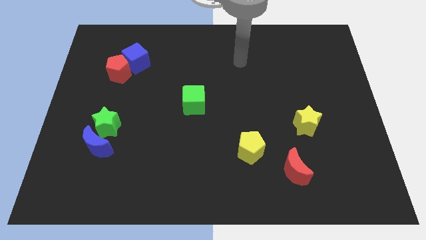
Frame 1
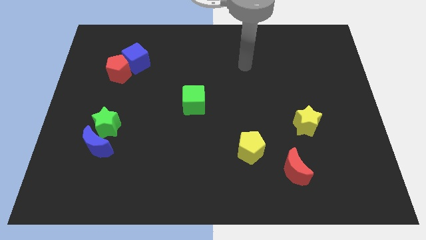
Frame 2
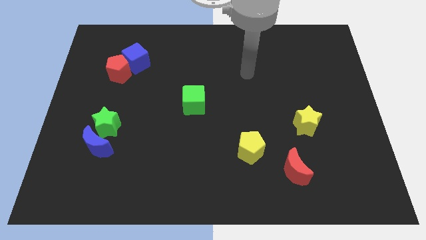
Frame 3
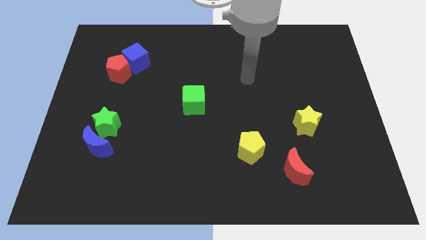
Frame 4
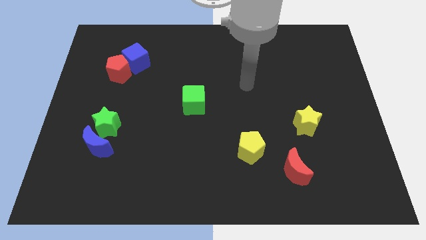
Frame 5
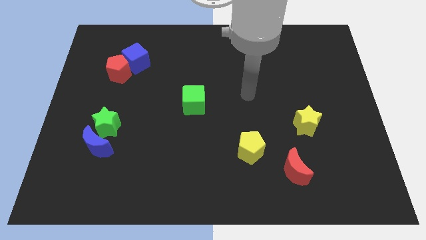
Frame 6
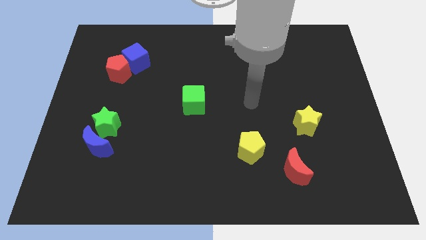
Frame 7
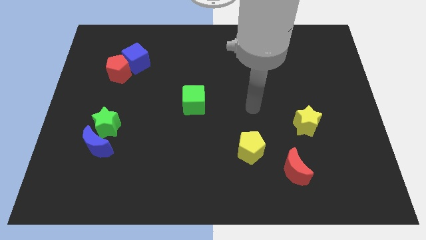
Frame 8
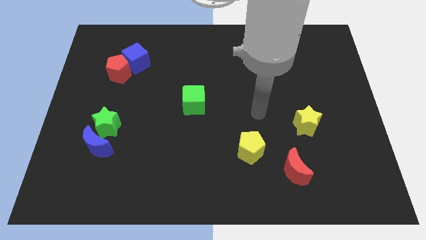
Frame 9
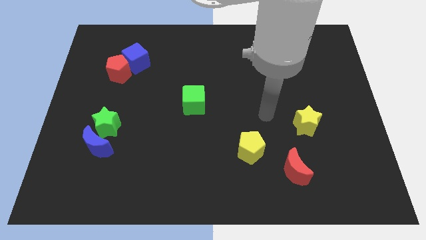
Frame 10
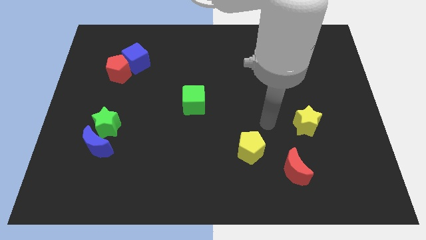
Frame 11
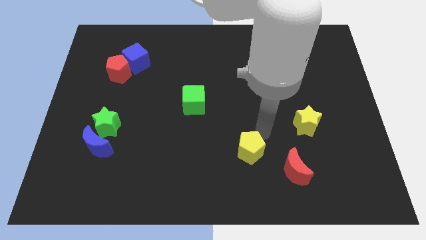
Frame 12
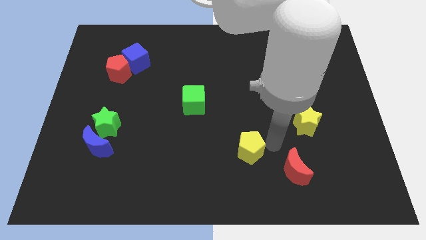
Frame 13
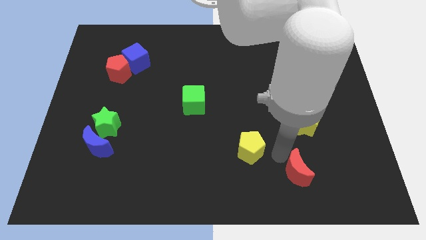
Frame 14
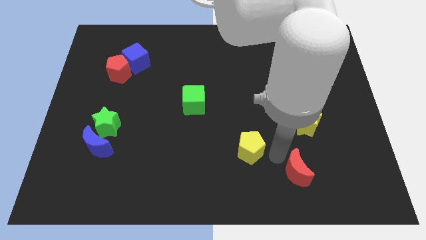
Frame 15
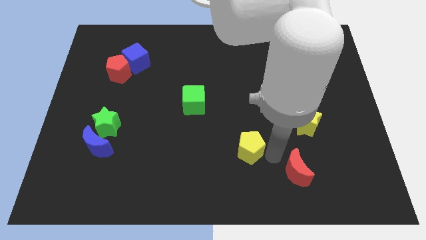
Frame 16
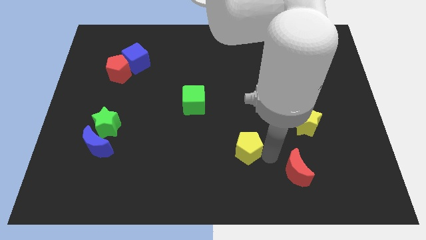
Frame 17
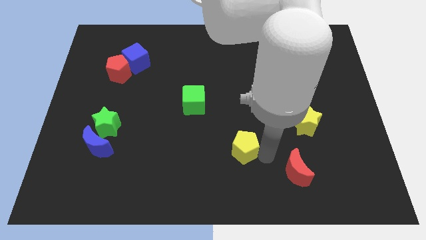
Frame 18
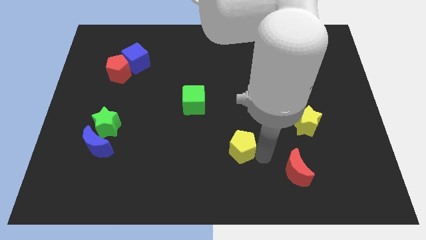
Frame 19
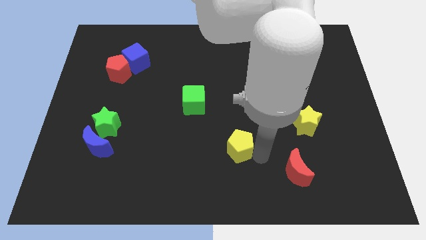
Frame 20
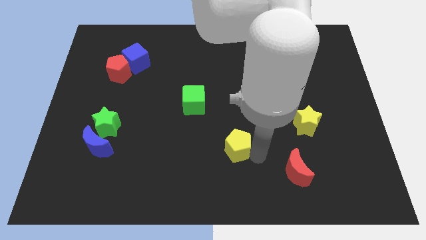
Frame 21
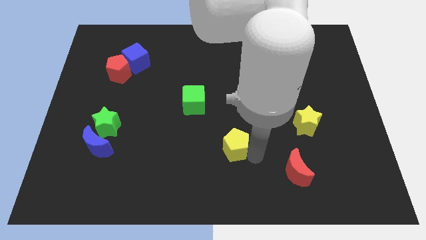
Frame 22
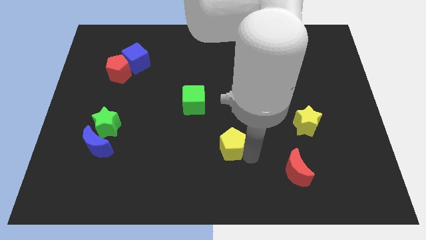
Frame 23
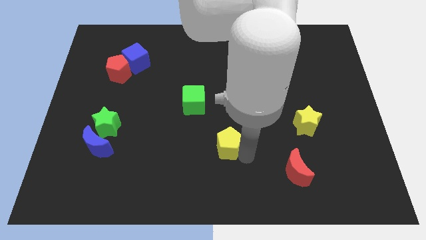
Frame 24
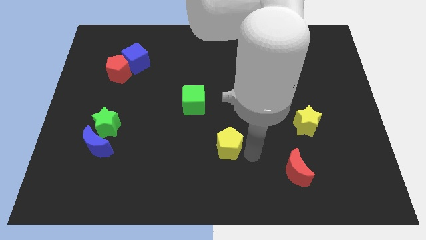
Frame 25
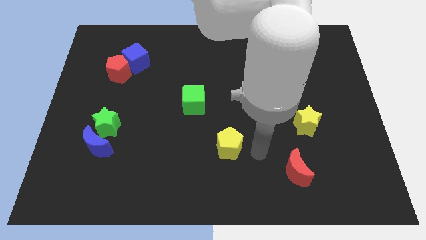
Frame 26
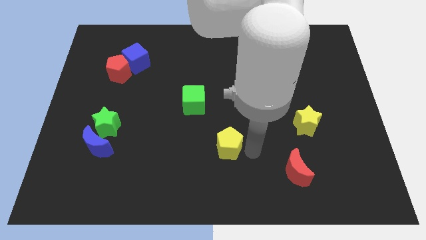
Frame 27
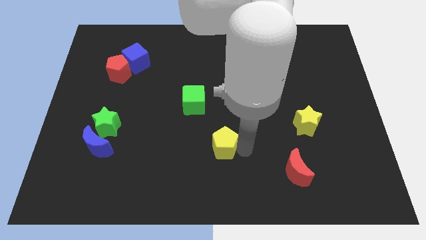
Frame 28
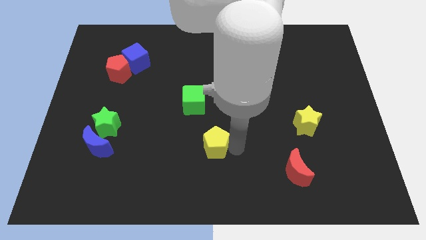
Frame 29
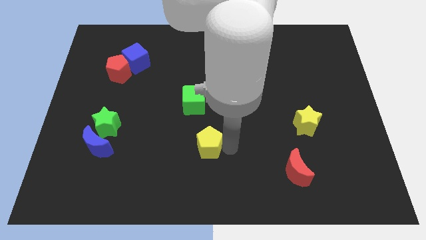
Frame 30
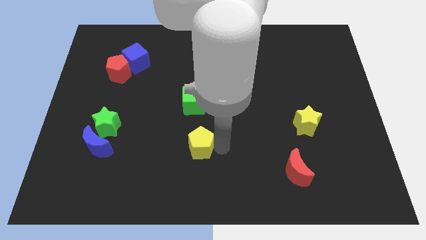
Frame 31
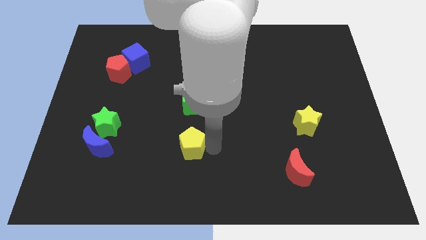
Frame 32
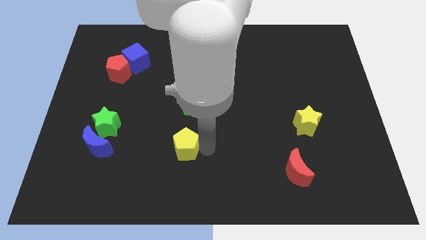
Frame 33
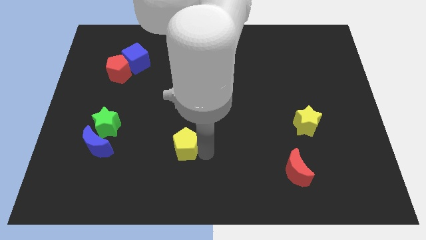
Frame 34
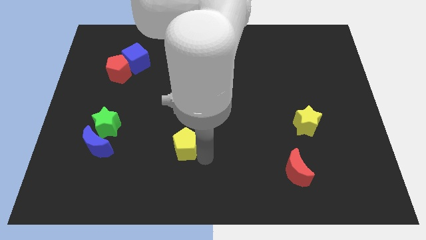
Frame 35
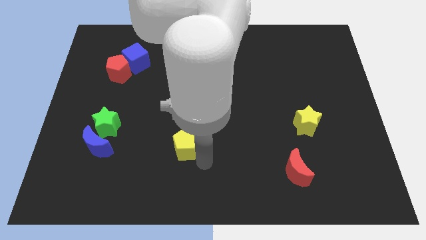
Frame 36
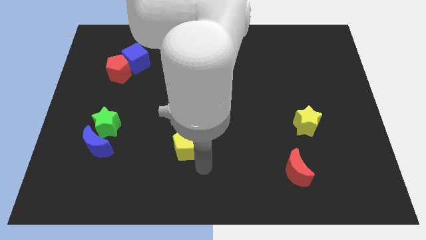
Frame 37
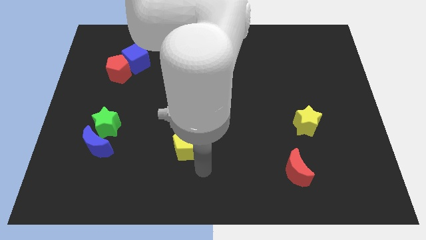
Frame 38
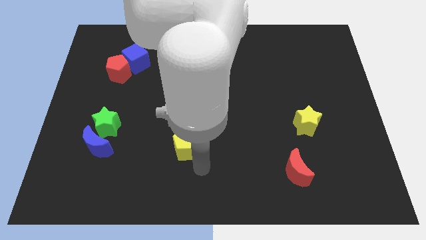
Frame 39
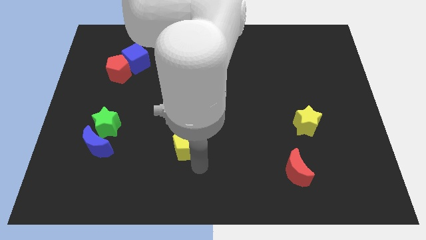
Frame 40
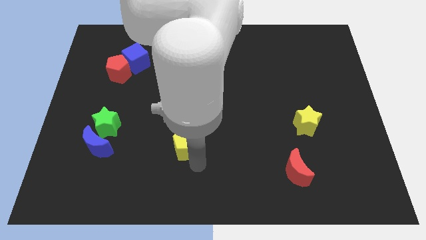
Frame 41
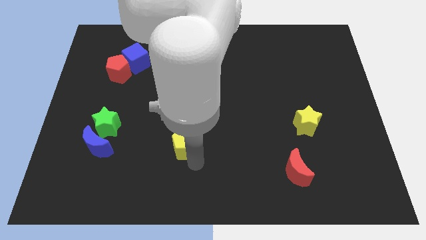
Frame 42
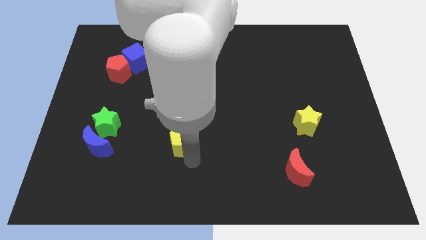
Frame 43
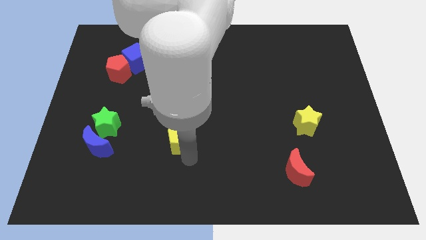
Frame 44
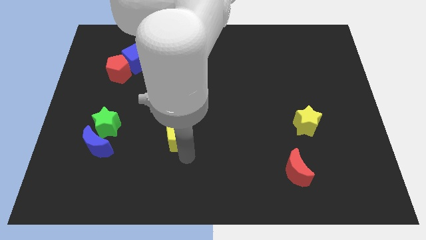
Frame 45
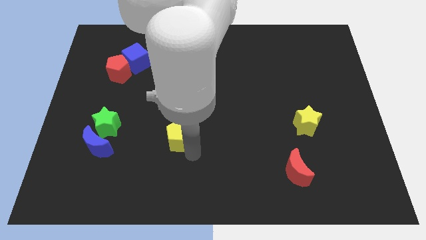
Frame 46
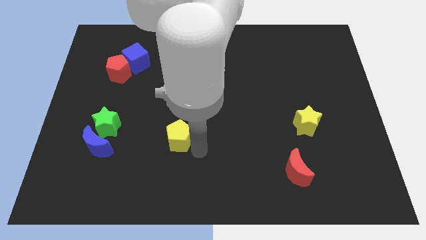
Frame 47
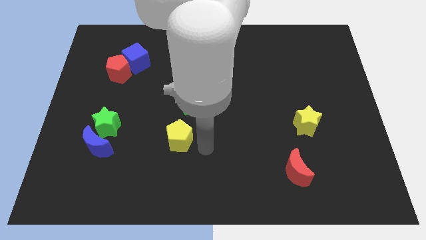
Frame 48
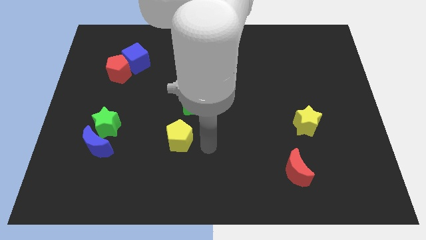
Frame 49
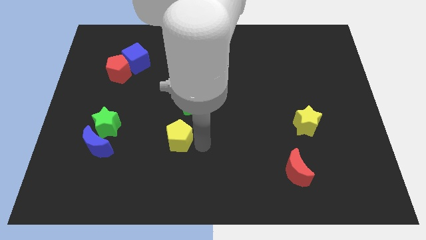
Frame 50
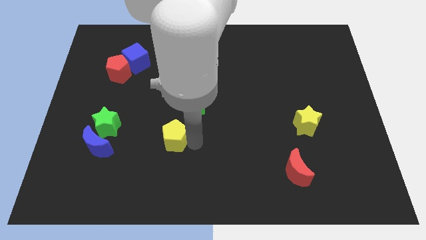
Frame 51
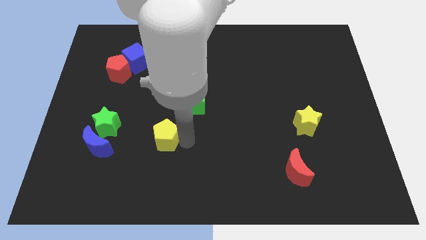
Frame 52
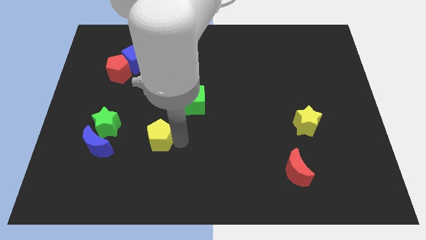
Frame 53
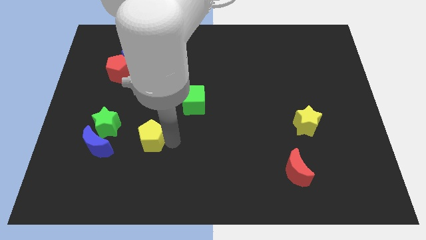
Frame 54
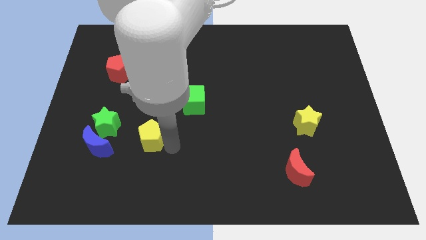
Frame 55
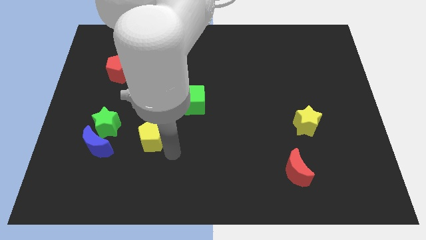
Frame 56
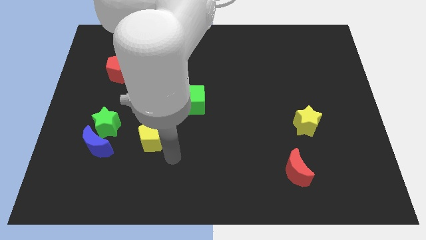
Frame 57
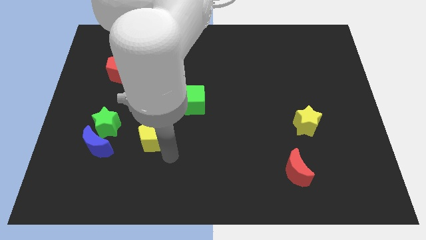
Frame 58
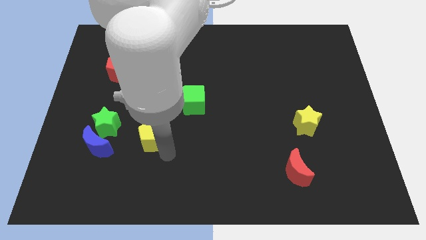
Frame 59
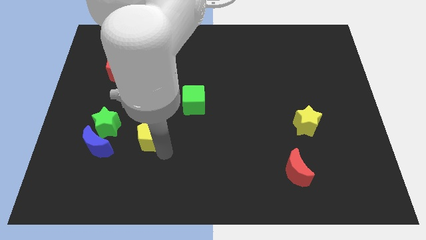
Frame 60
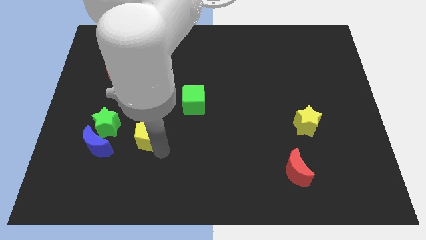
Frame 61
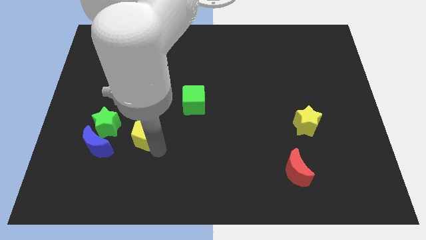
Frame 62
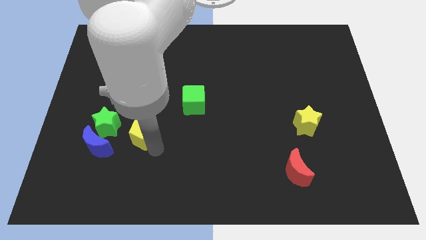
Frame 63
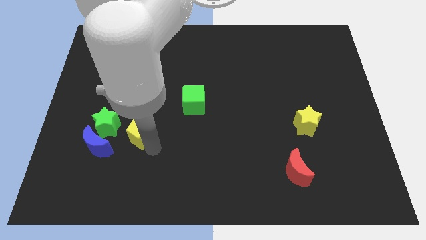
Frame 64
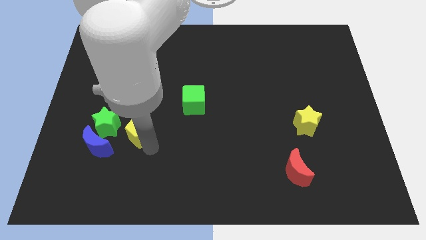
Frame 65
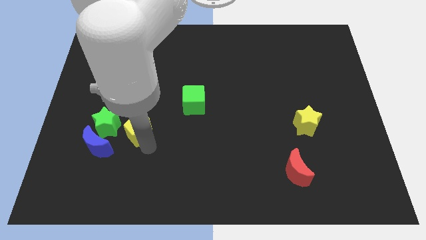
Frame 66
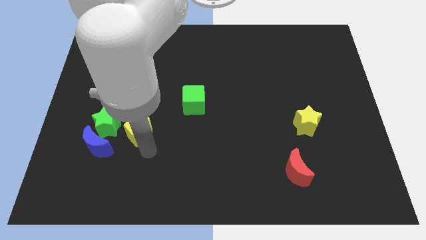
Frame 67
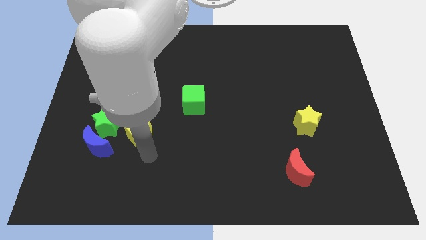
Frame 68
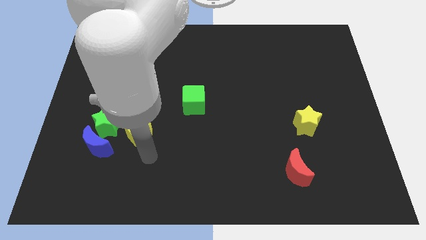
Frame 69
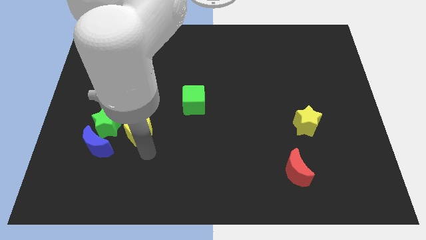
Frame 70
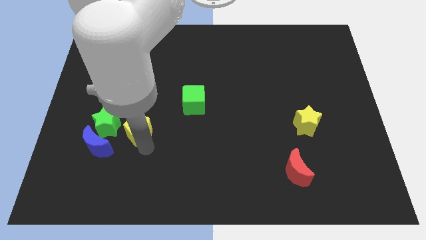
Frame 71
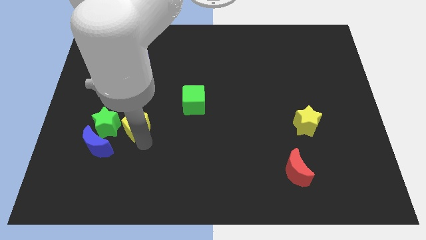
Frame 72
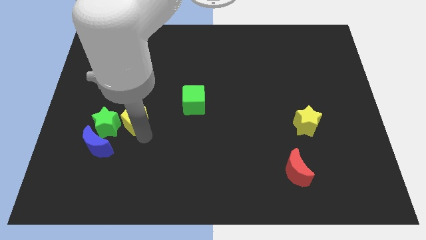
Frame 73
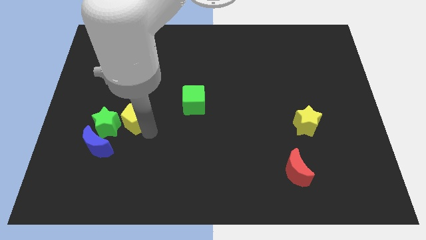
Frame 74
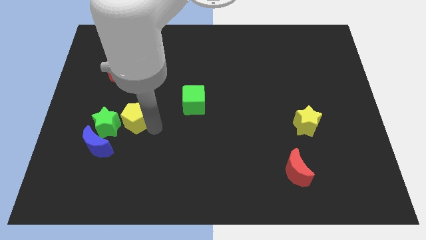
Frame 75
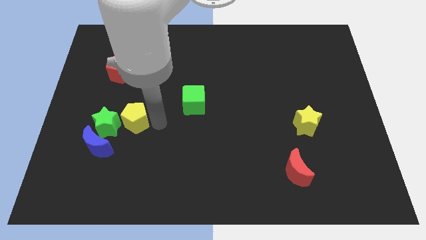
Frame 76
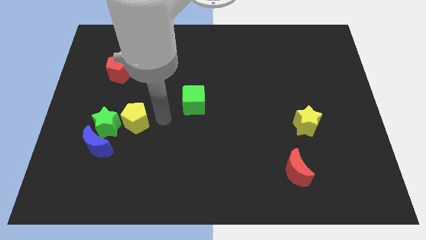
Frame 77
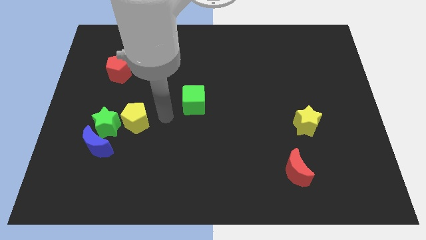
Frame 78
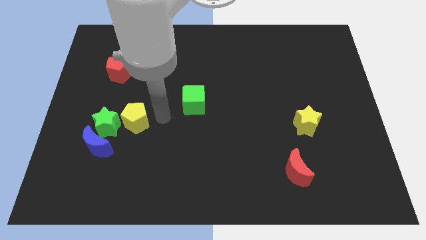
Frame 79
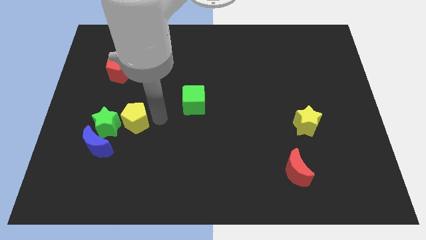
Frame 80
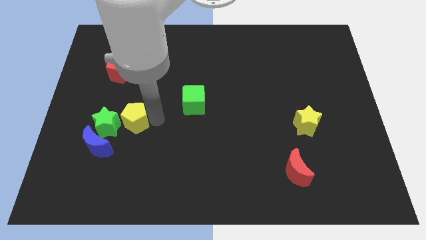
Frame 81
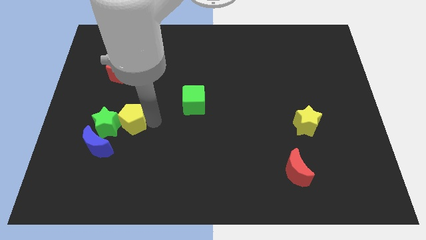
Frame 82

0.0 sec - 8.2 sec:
slide the yellow pentagon to the green star
